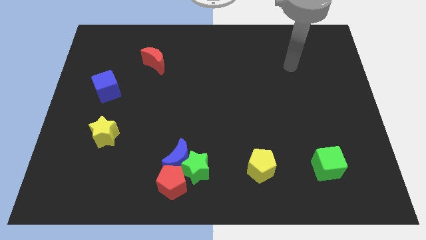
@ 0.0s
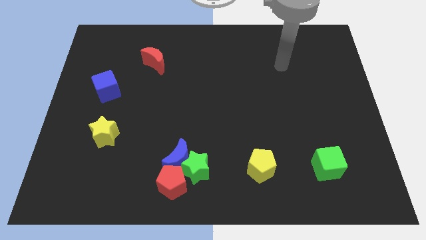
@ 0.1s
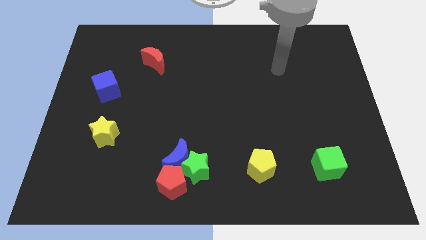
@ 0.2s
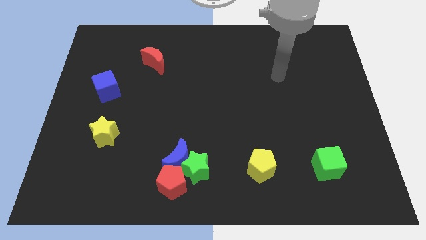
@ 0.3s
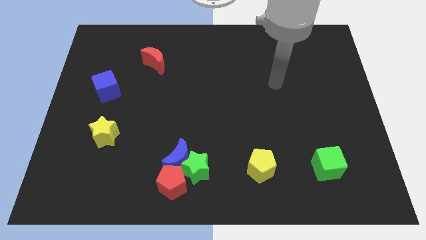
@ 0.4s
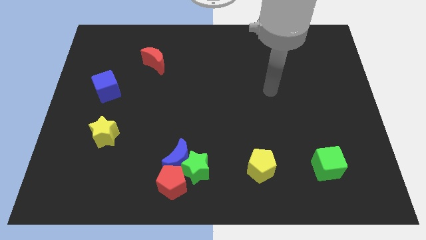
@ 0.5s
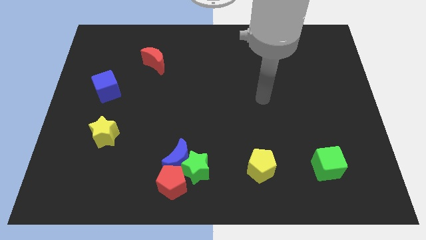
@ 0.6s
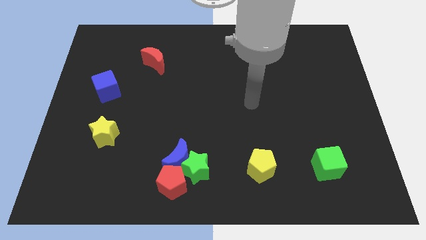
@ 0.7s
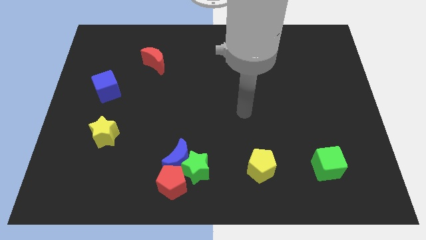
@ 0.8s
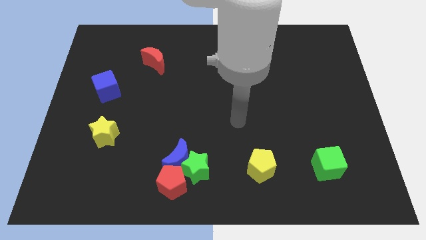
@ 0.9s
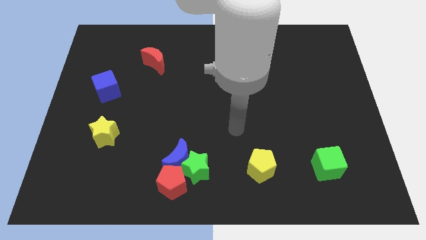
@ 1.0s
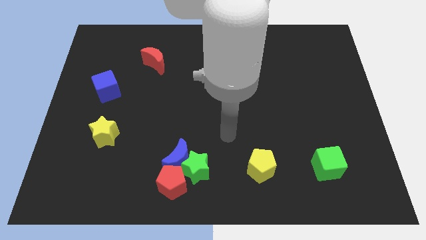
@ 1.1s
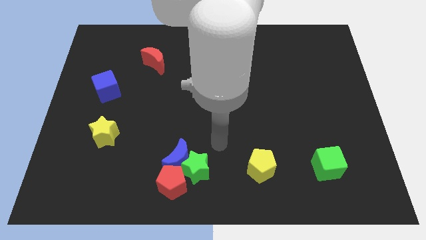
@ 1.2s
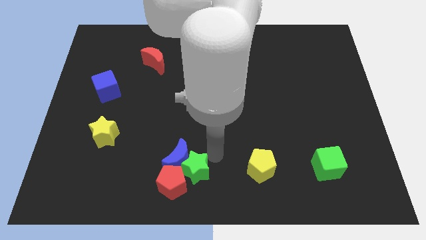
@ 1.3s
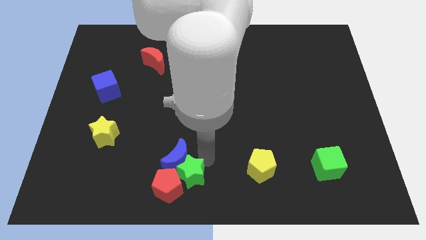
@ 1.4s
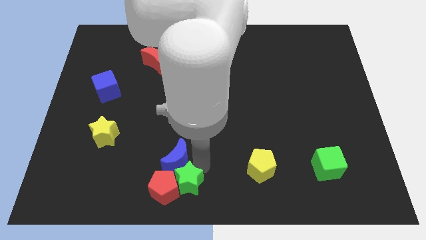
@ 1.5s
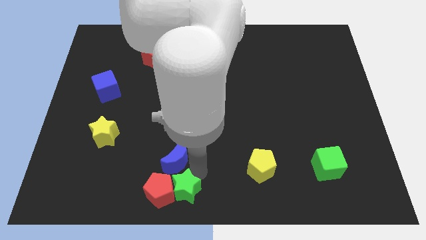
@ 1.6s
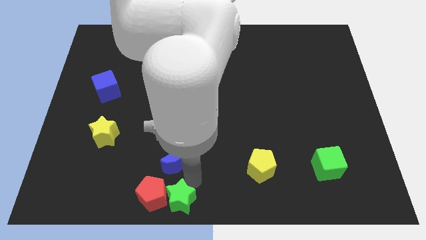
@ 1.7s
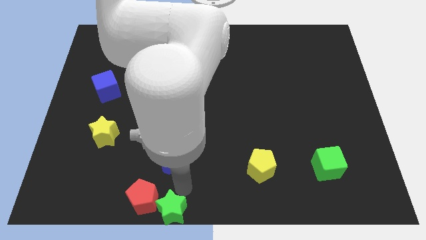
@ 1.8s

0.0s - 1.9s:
separate the blue moon from the green star and red pentagon

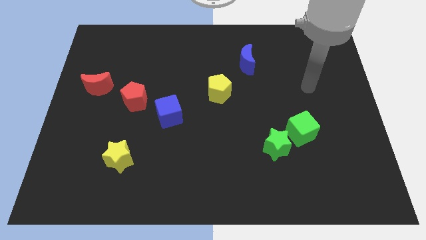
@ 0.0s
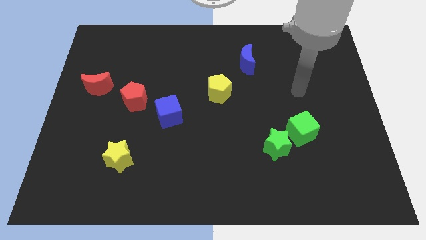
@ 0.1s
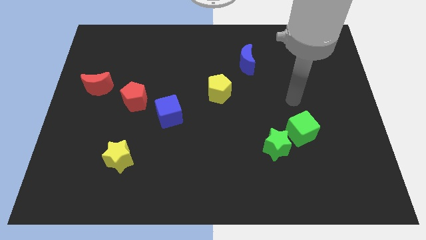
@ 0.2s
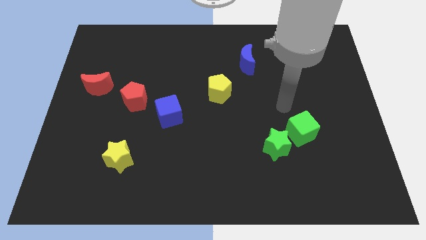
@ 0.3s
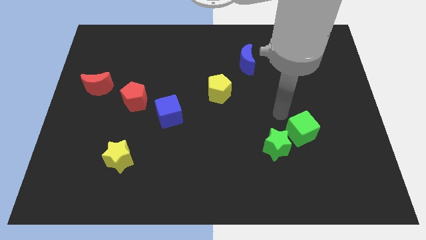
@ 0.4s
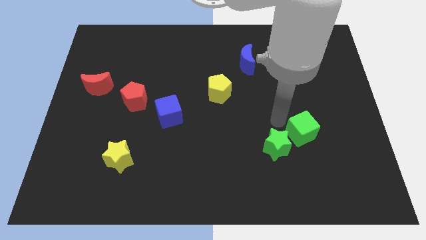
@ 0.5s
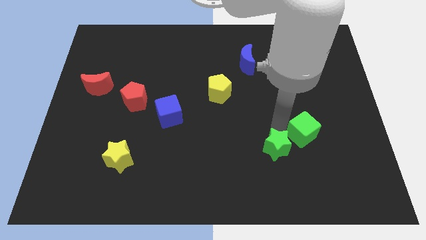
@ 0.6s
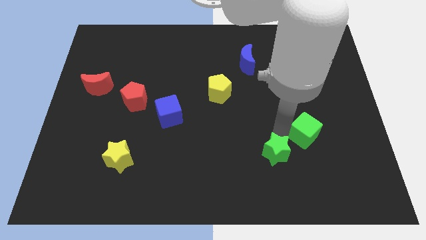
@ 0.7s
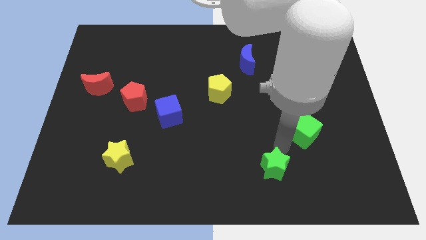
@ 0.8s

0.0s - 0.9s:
pull the green cube apart from the green star

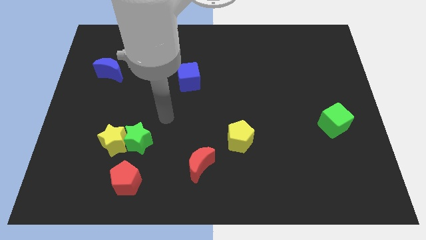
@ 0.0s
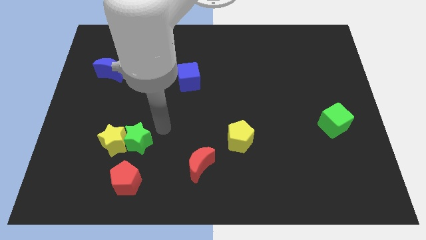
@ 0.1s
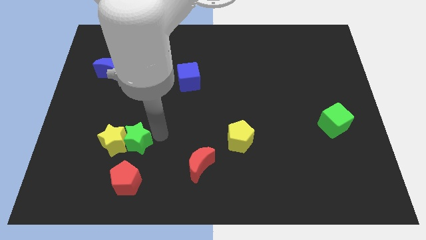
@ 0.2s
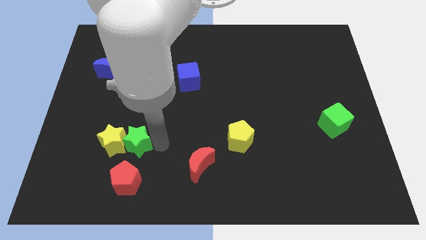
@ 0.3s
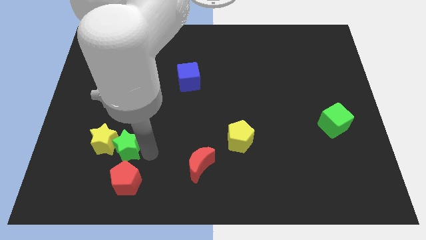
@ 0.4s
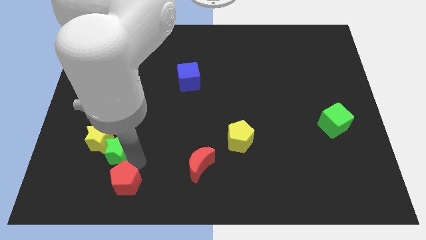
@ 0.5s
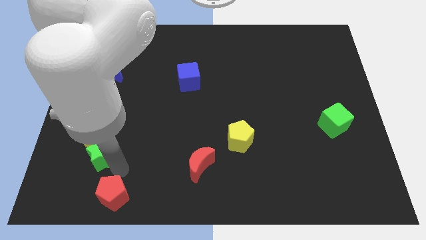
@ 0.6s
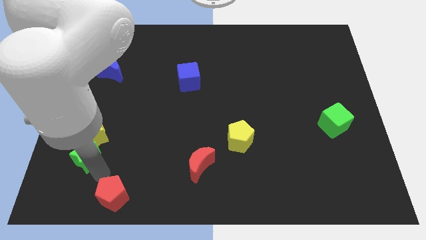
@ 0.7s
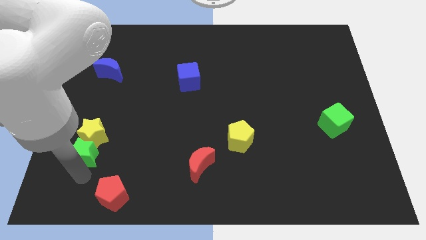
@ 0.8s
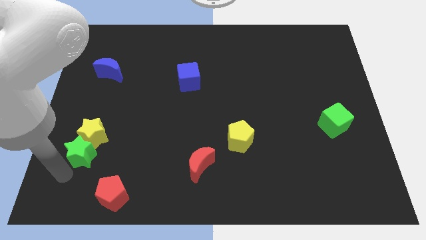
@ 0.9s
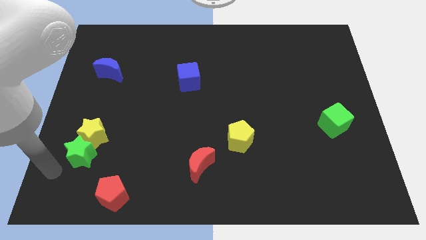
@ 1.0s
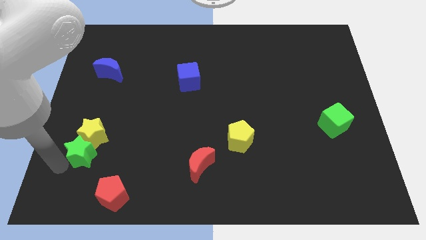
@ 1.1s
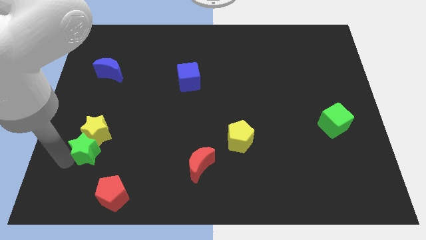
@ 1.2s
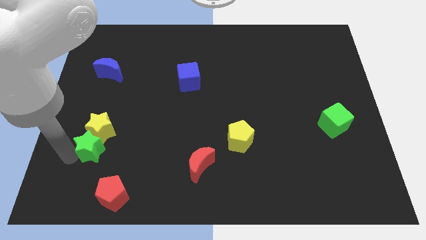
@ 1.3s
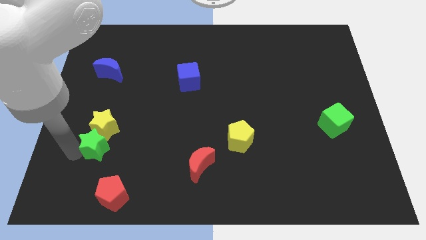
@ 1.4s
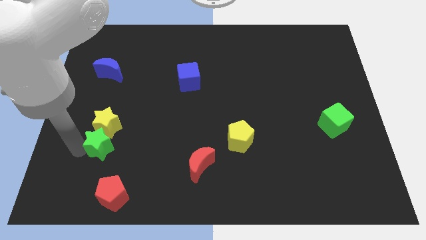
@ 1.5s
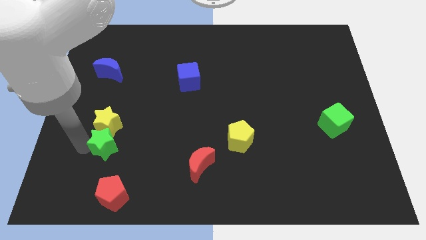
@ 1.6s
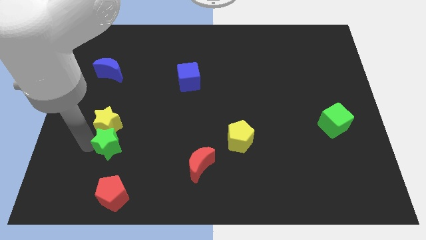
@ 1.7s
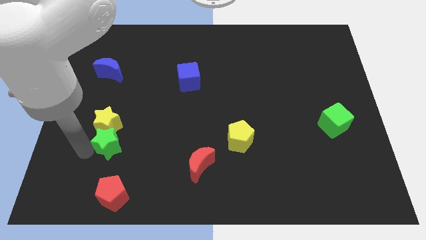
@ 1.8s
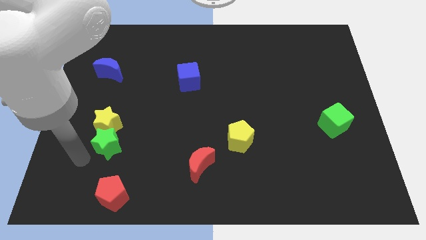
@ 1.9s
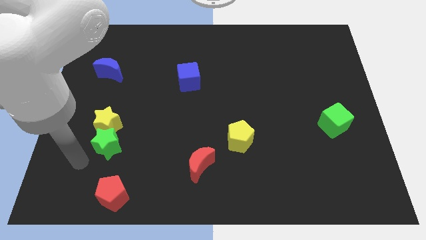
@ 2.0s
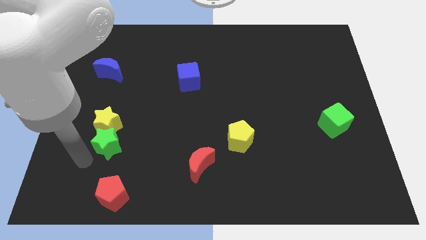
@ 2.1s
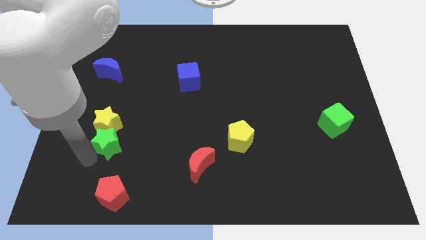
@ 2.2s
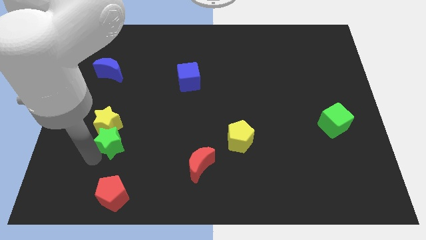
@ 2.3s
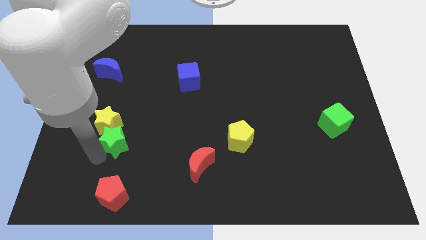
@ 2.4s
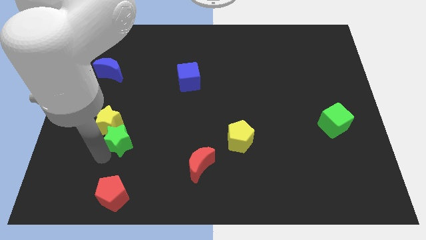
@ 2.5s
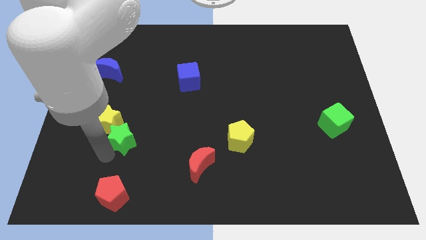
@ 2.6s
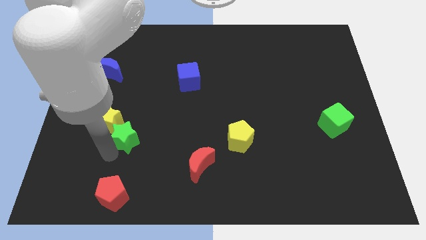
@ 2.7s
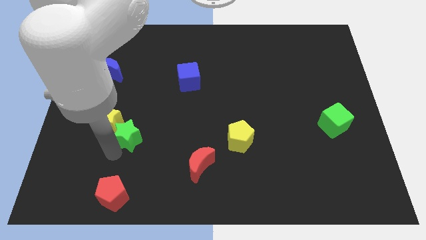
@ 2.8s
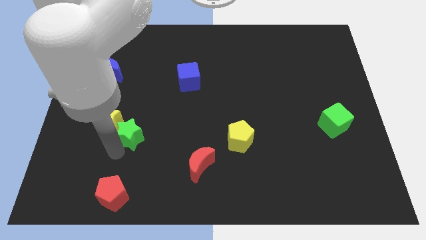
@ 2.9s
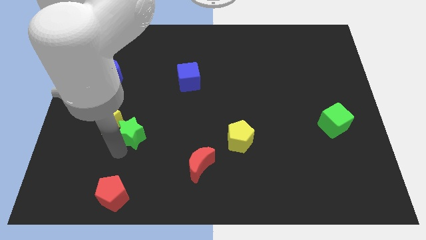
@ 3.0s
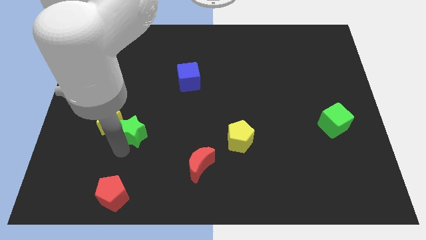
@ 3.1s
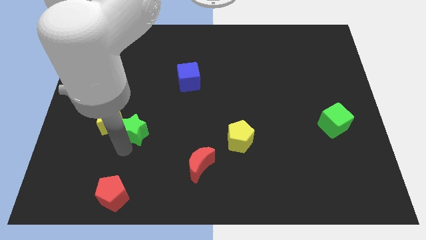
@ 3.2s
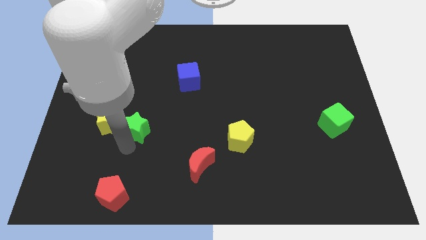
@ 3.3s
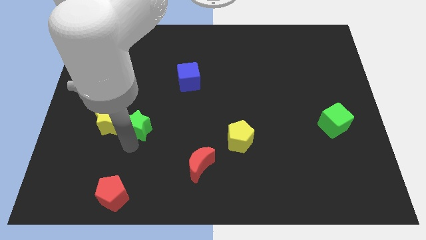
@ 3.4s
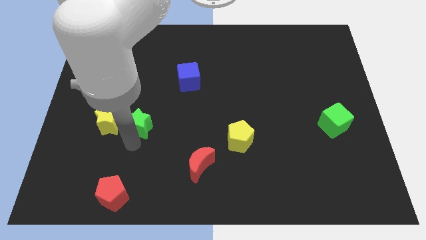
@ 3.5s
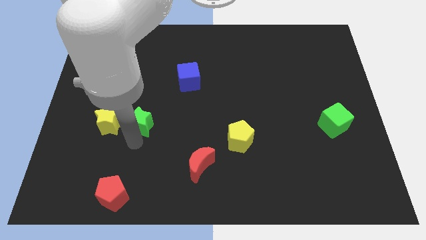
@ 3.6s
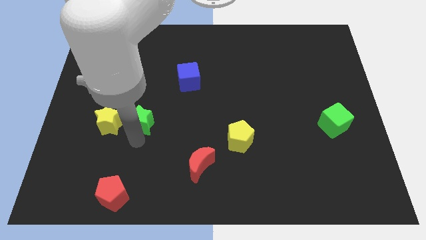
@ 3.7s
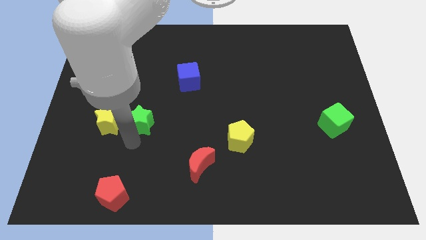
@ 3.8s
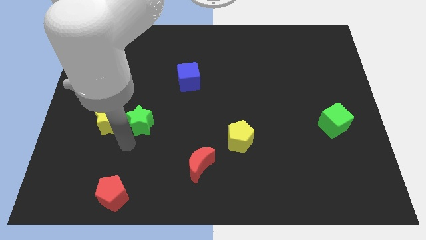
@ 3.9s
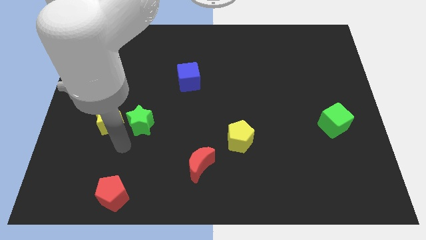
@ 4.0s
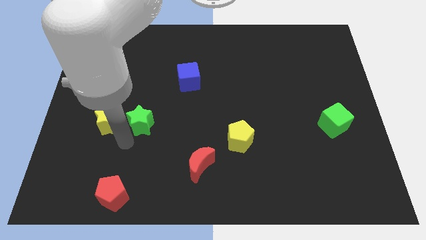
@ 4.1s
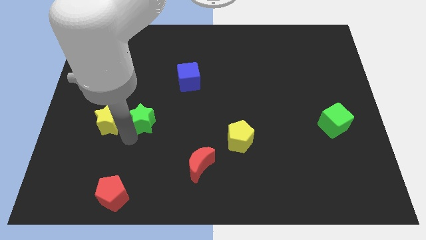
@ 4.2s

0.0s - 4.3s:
pull the green star apart from the yellow star and red pentagon

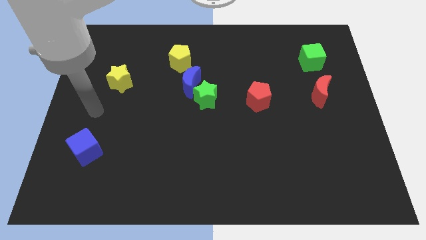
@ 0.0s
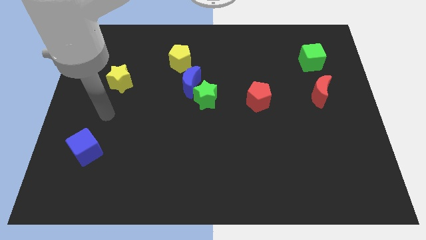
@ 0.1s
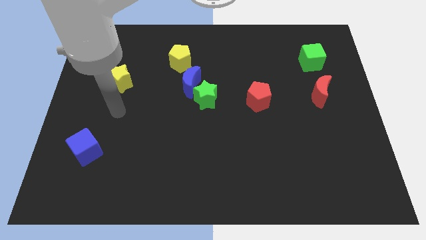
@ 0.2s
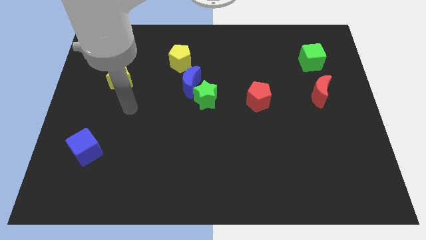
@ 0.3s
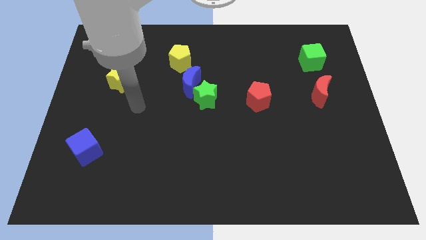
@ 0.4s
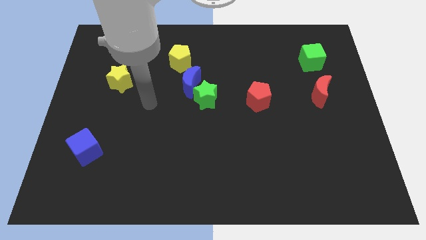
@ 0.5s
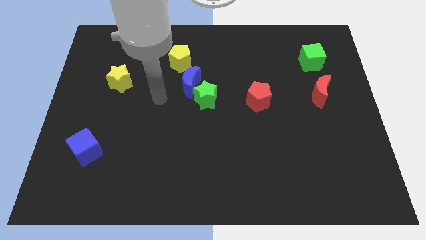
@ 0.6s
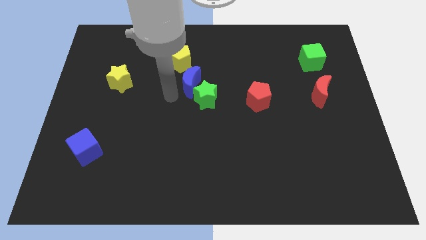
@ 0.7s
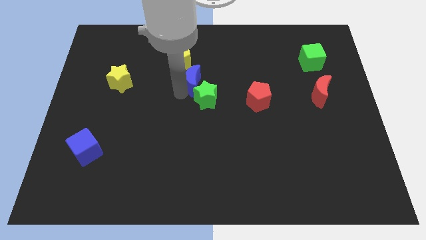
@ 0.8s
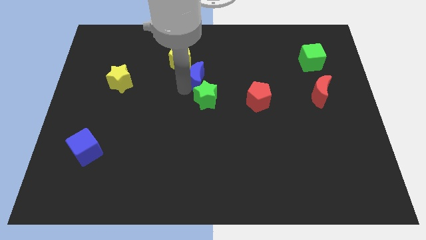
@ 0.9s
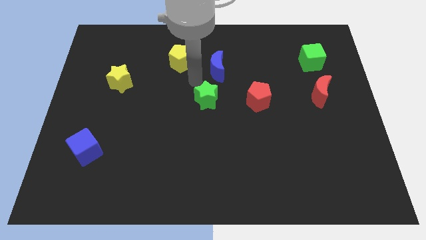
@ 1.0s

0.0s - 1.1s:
move the green star away from the blue moon

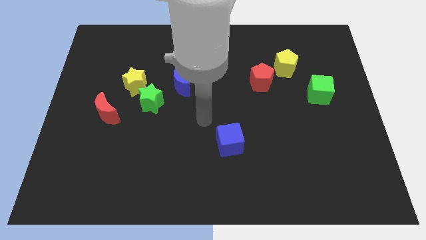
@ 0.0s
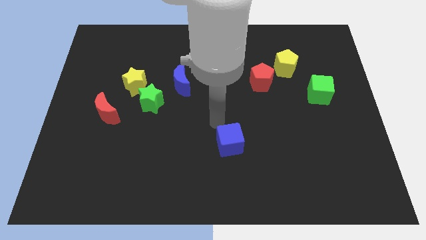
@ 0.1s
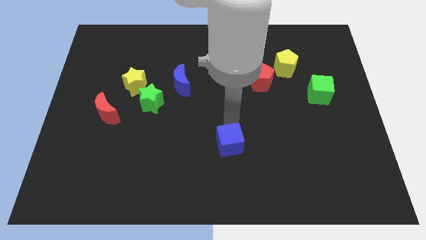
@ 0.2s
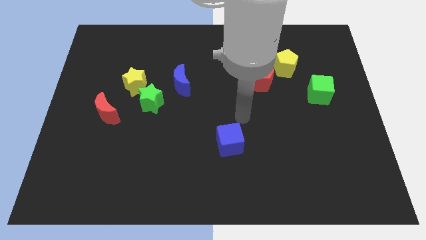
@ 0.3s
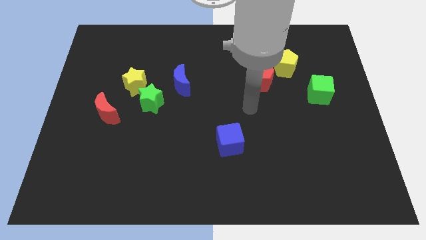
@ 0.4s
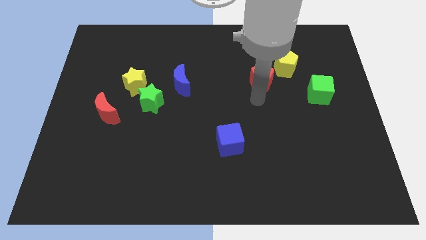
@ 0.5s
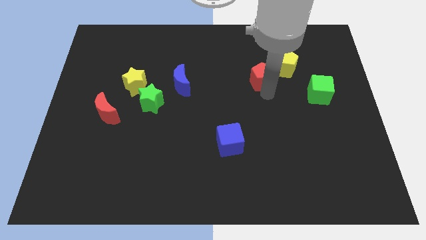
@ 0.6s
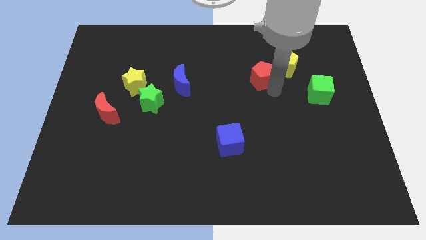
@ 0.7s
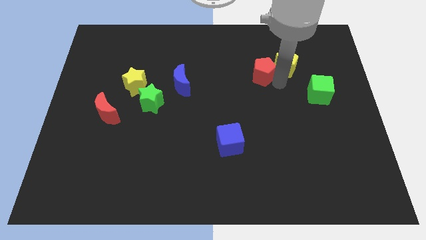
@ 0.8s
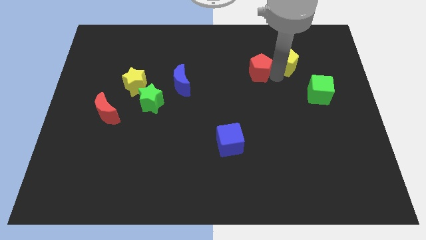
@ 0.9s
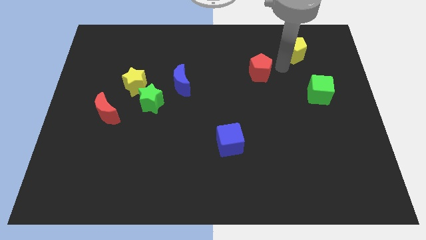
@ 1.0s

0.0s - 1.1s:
move the red pentagon away from the yellow pentagon
